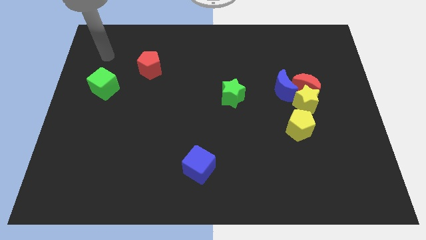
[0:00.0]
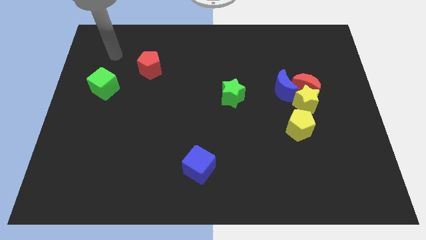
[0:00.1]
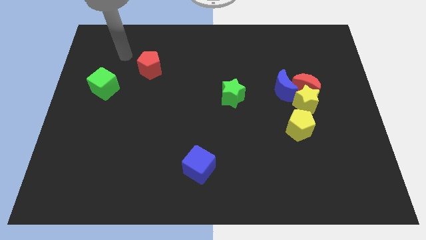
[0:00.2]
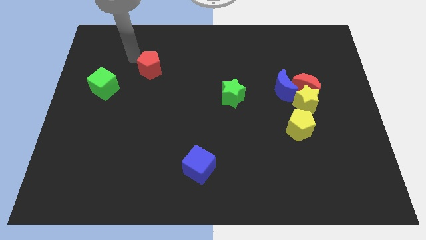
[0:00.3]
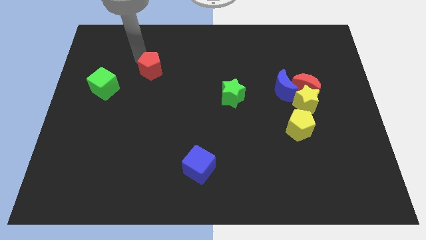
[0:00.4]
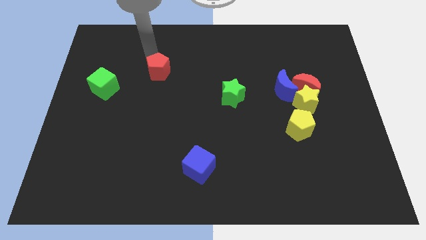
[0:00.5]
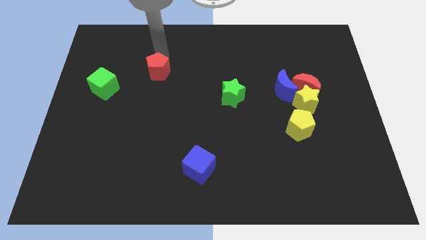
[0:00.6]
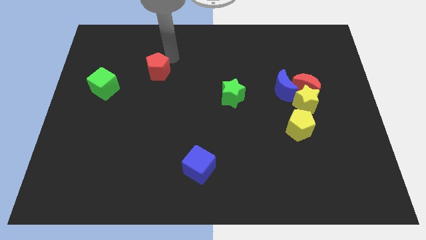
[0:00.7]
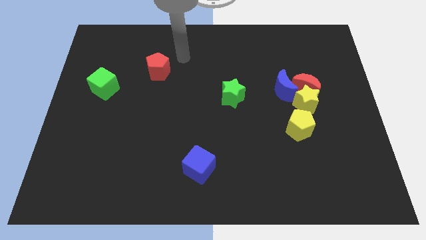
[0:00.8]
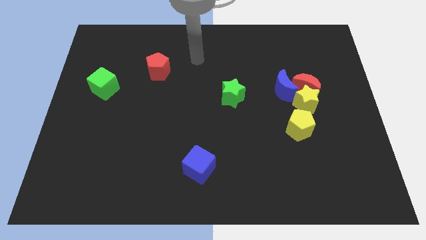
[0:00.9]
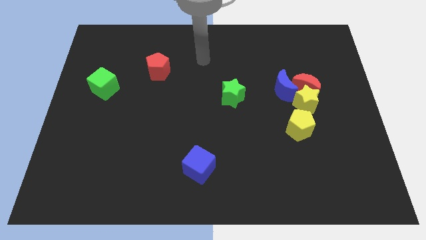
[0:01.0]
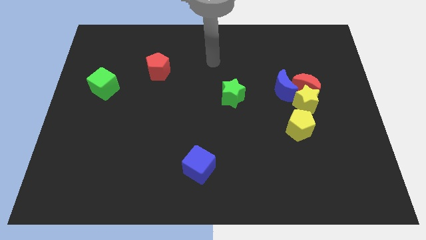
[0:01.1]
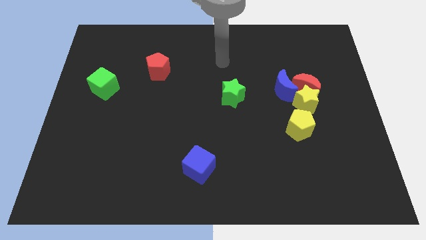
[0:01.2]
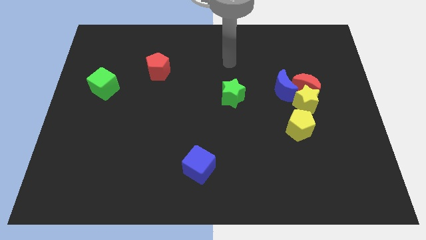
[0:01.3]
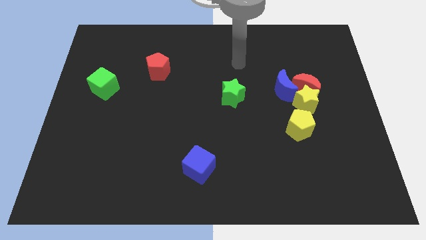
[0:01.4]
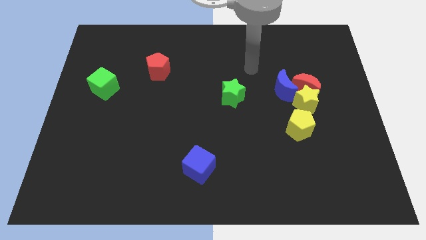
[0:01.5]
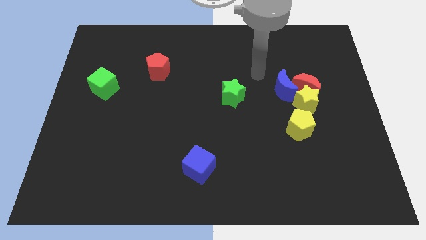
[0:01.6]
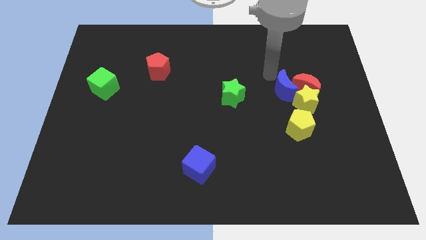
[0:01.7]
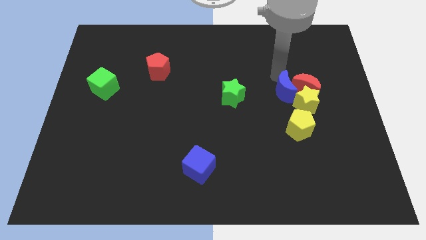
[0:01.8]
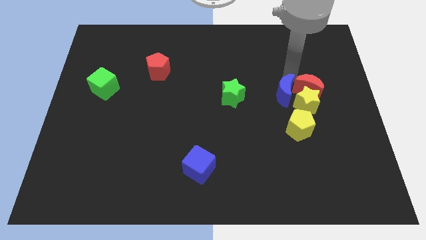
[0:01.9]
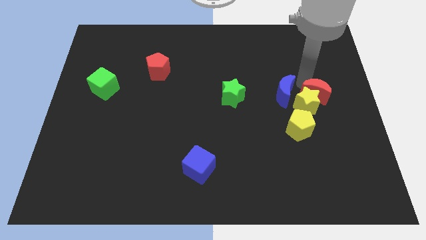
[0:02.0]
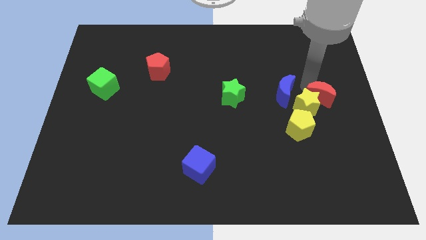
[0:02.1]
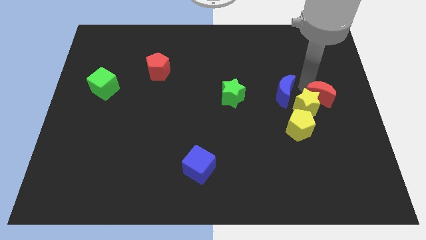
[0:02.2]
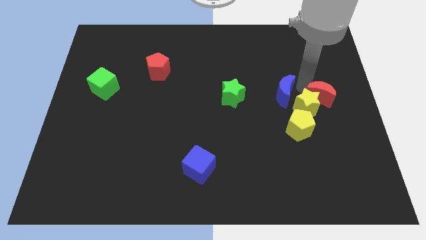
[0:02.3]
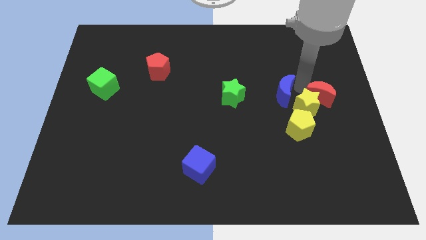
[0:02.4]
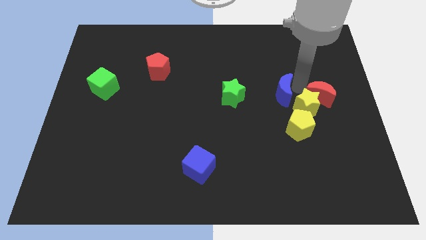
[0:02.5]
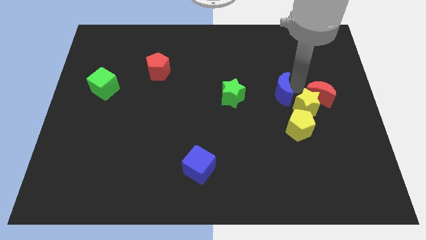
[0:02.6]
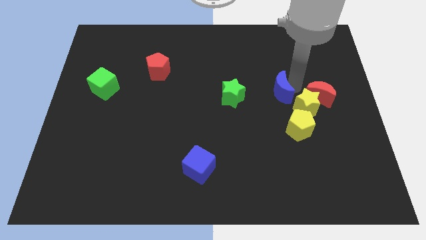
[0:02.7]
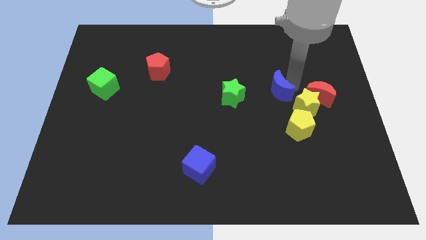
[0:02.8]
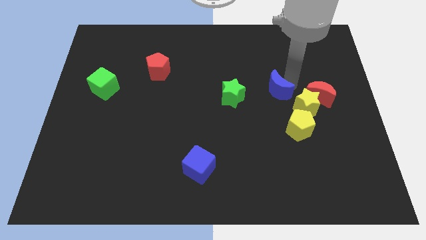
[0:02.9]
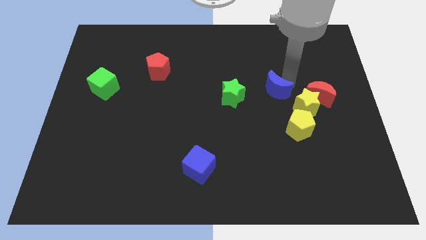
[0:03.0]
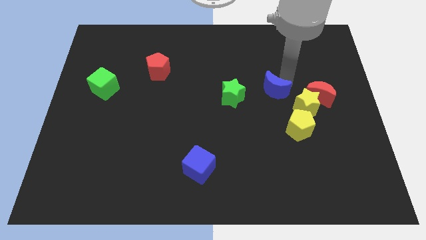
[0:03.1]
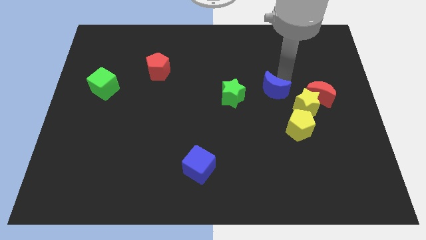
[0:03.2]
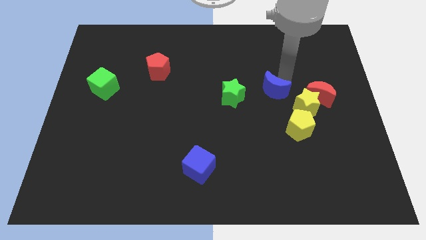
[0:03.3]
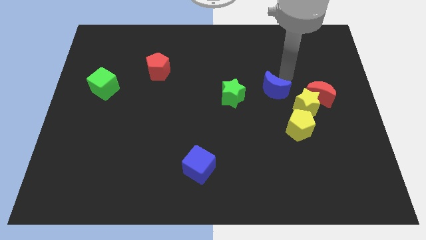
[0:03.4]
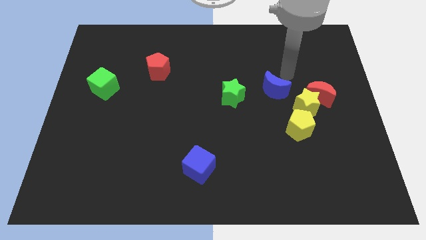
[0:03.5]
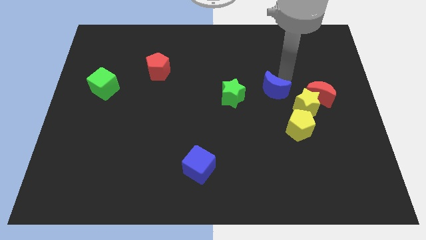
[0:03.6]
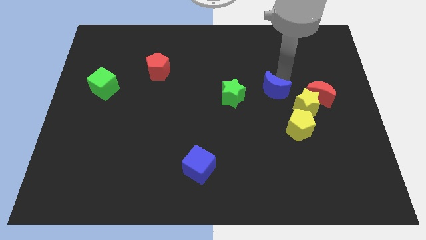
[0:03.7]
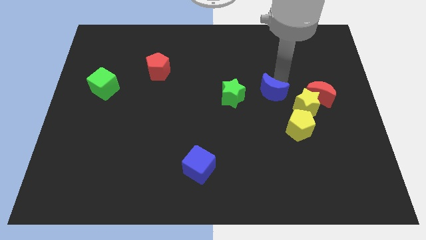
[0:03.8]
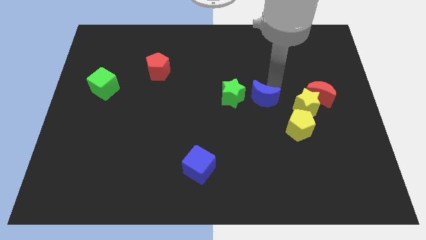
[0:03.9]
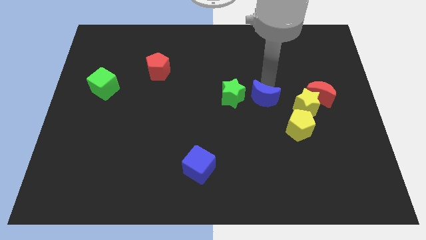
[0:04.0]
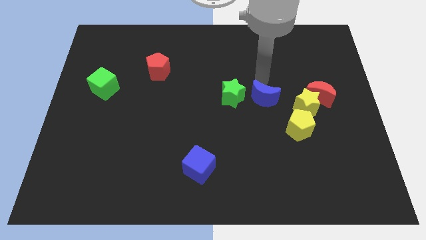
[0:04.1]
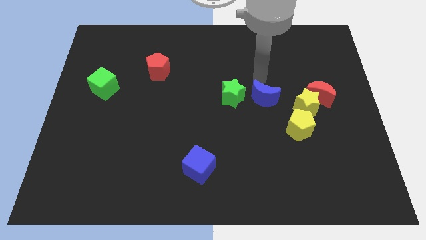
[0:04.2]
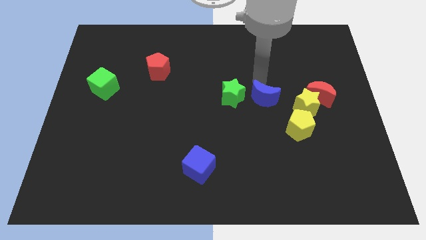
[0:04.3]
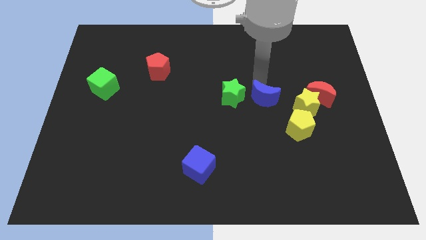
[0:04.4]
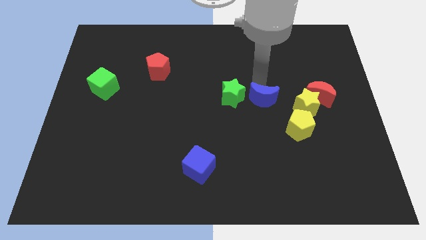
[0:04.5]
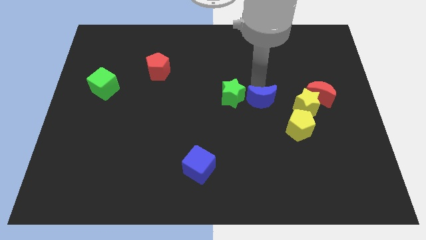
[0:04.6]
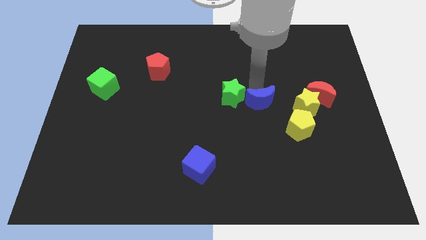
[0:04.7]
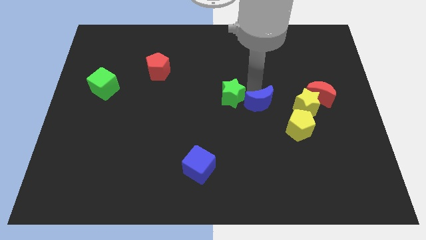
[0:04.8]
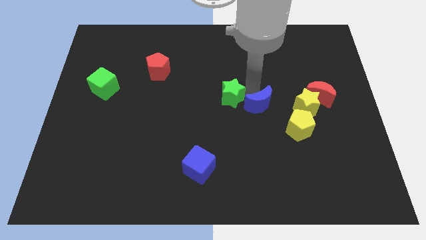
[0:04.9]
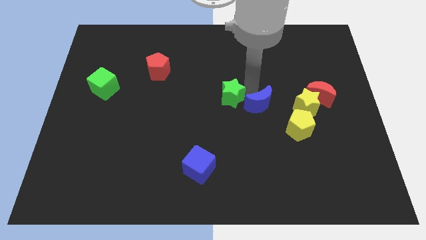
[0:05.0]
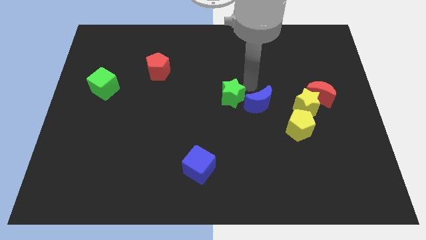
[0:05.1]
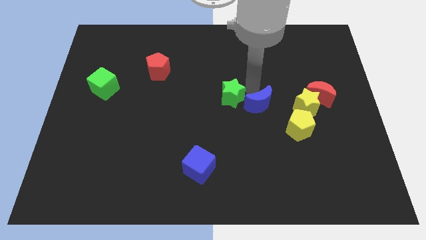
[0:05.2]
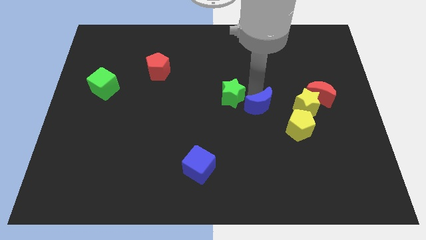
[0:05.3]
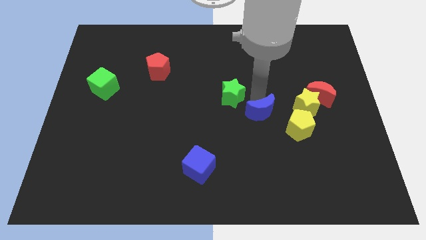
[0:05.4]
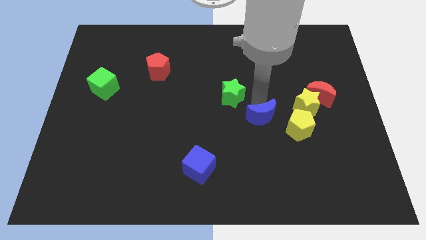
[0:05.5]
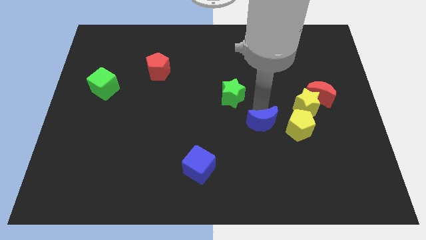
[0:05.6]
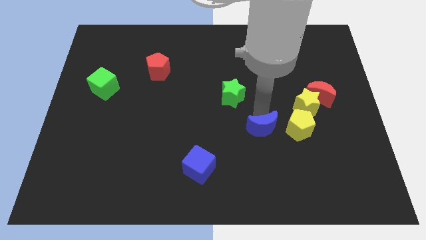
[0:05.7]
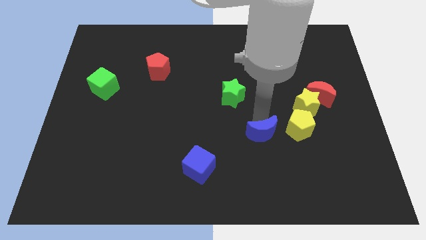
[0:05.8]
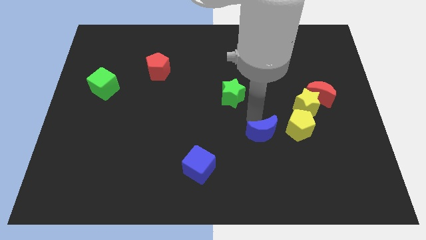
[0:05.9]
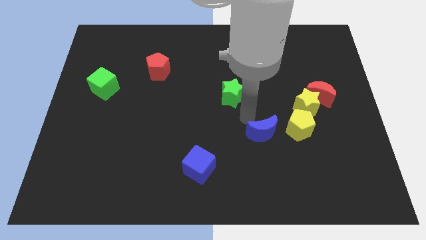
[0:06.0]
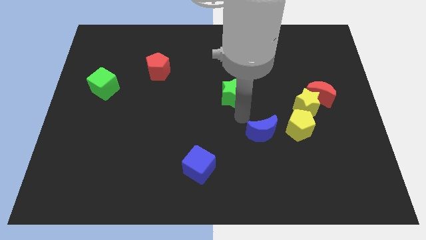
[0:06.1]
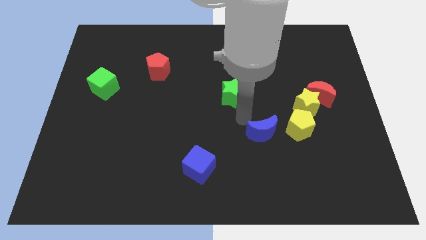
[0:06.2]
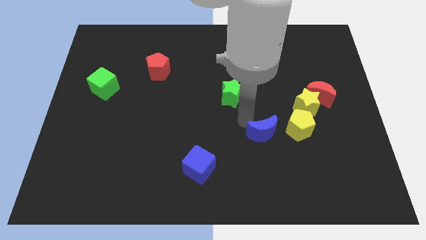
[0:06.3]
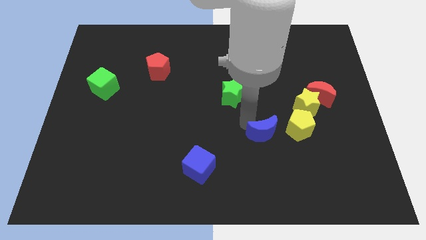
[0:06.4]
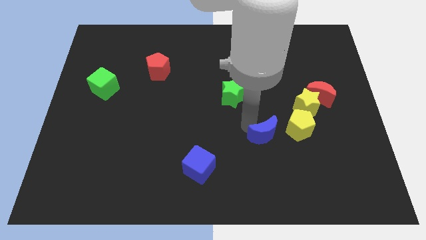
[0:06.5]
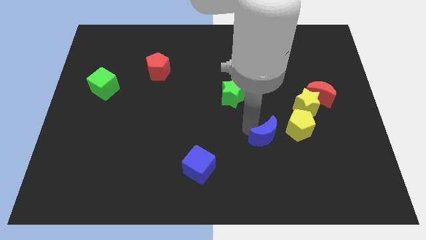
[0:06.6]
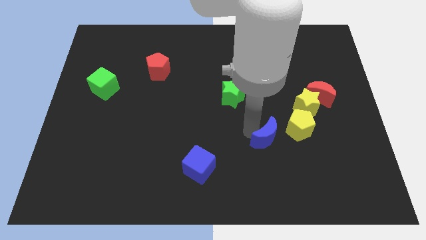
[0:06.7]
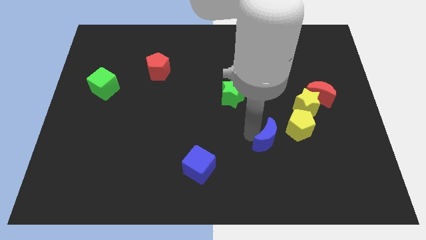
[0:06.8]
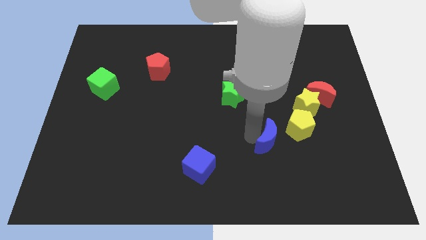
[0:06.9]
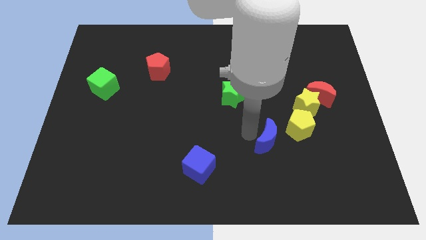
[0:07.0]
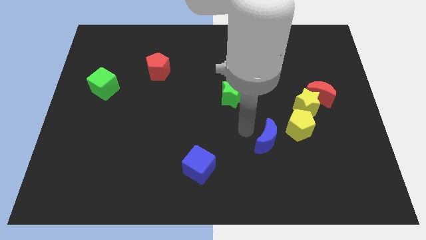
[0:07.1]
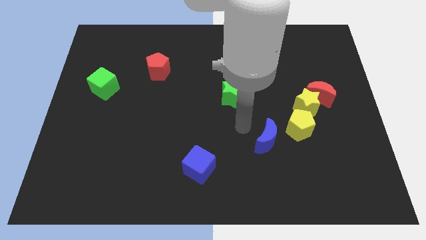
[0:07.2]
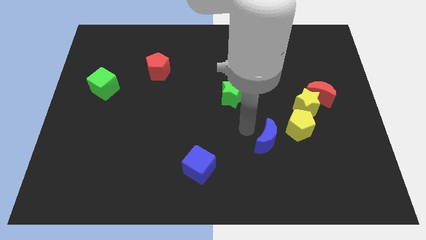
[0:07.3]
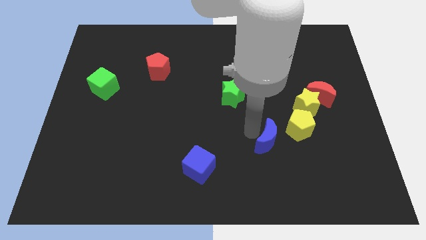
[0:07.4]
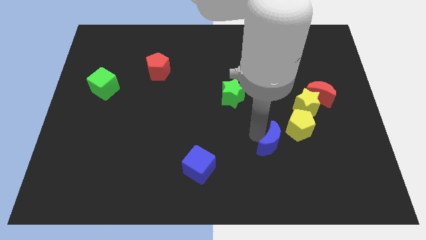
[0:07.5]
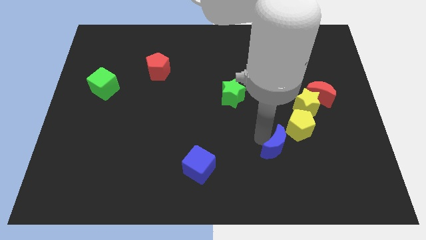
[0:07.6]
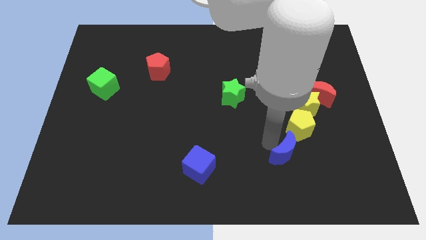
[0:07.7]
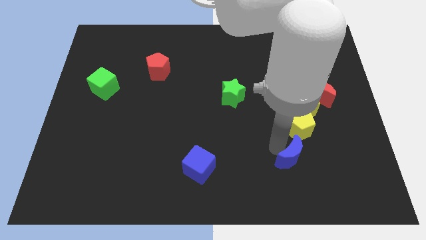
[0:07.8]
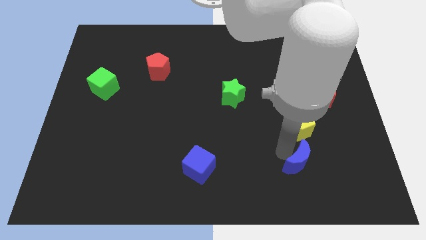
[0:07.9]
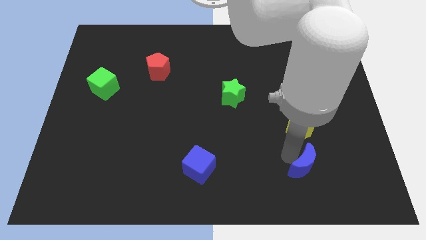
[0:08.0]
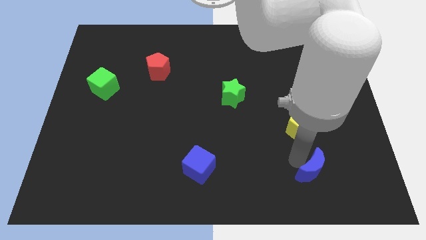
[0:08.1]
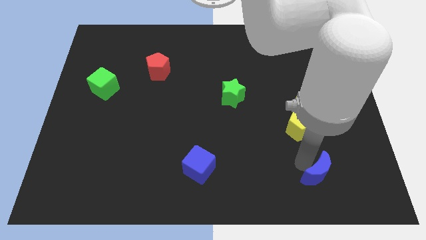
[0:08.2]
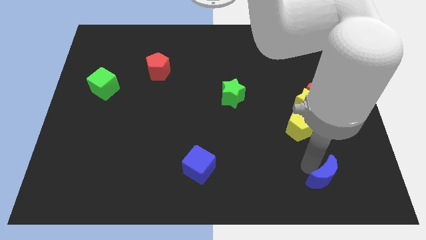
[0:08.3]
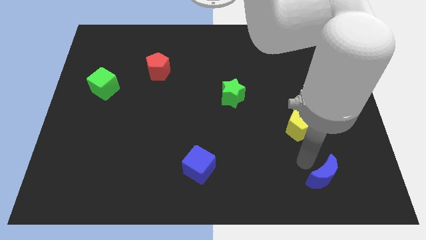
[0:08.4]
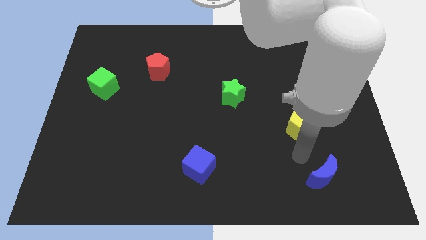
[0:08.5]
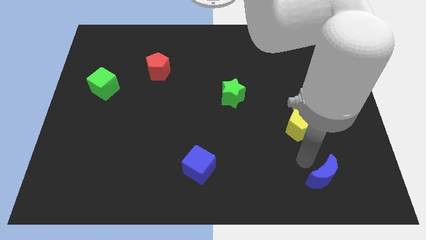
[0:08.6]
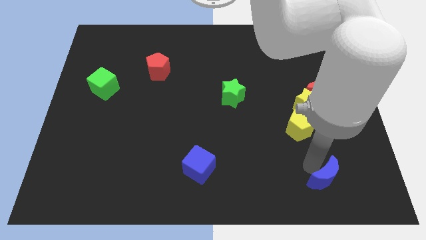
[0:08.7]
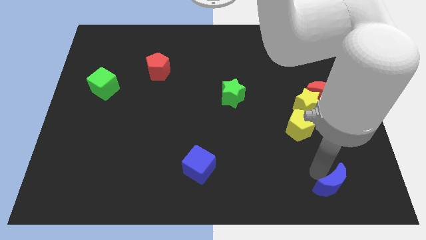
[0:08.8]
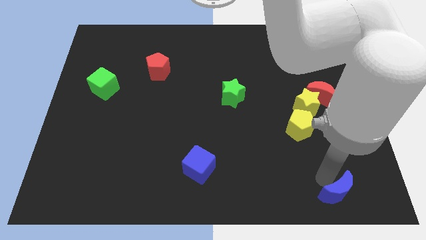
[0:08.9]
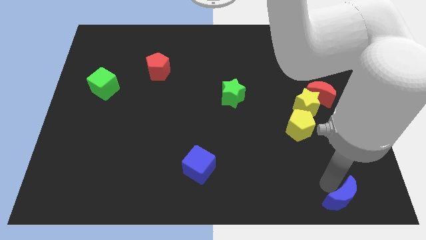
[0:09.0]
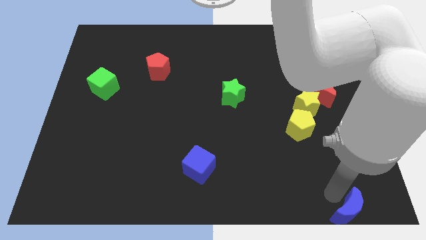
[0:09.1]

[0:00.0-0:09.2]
push the blue moon to the bottom right
